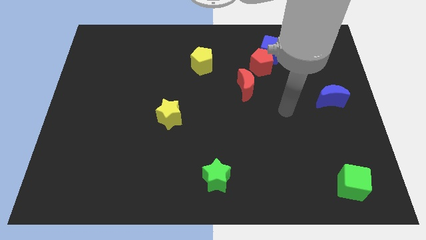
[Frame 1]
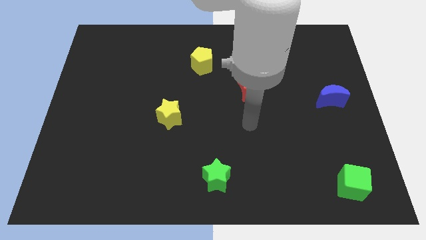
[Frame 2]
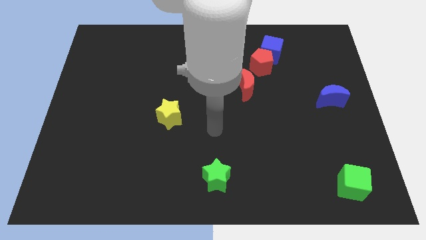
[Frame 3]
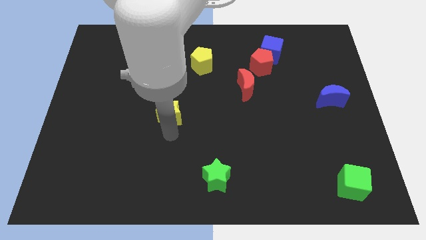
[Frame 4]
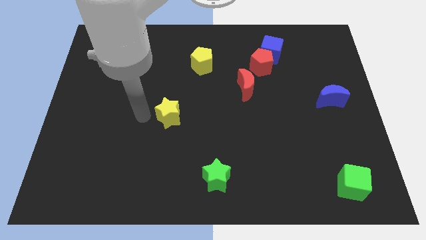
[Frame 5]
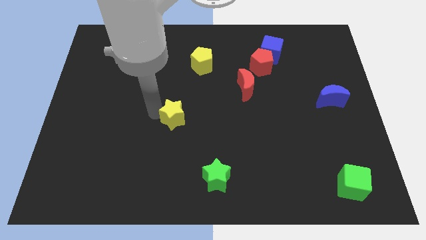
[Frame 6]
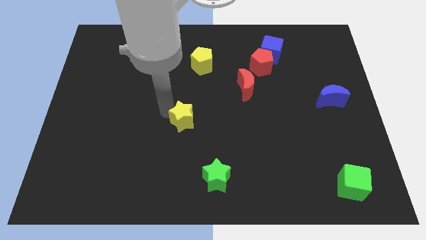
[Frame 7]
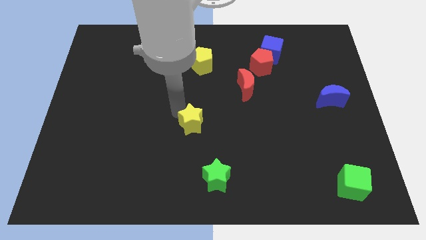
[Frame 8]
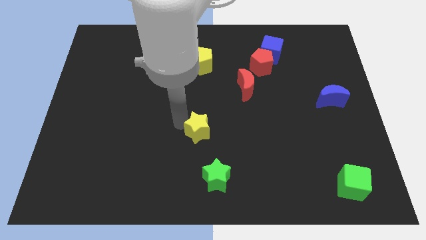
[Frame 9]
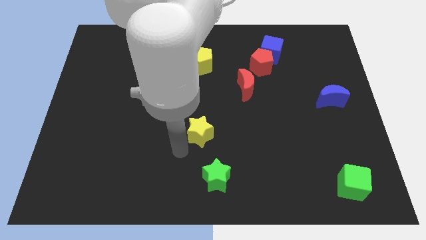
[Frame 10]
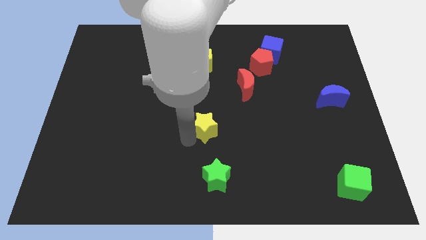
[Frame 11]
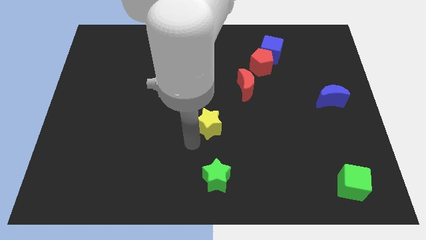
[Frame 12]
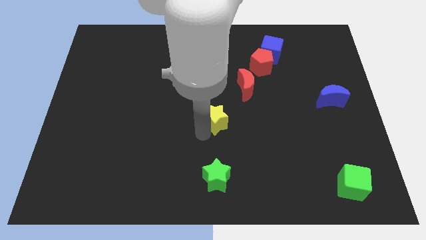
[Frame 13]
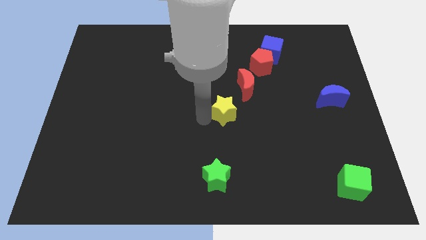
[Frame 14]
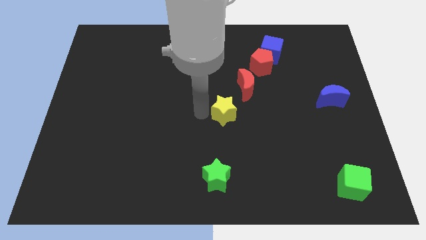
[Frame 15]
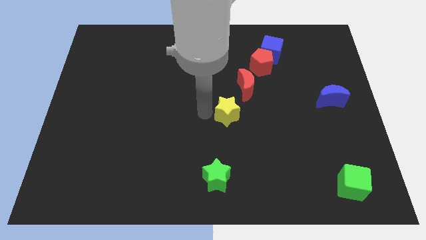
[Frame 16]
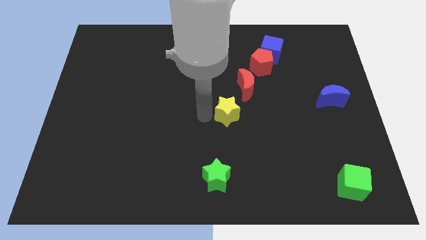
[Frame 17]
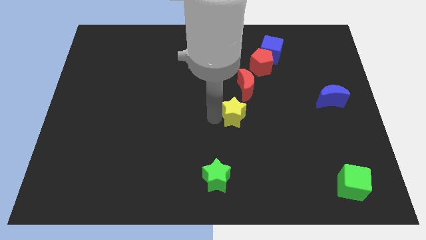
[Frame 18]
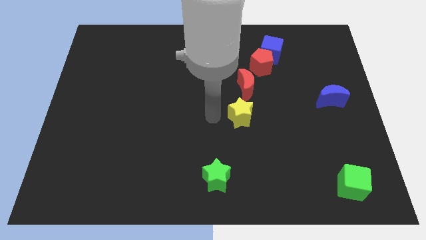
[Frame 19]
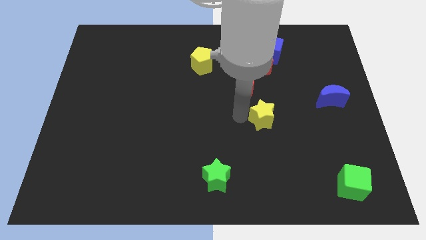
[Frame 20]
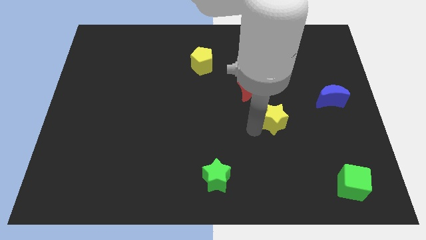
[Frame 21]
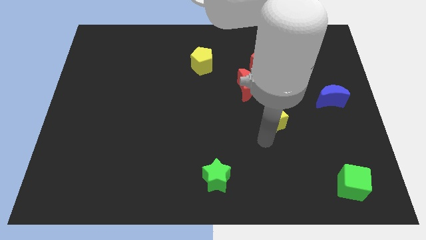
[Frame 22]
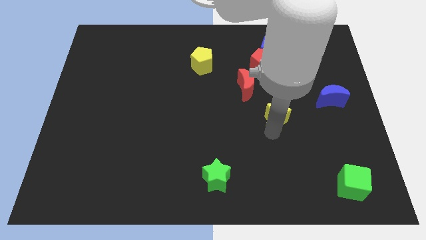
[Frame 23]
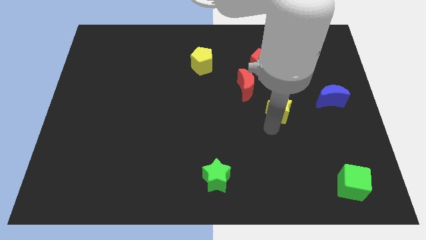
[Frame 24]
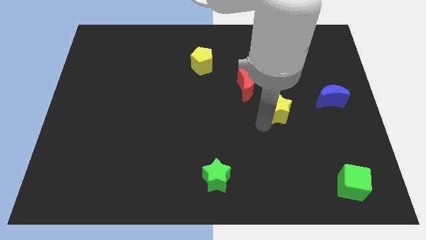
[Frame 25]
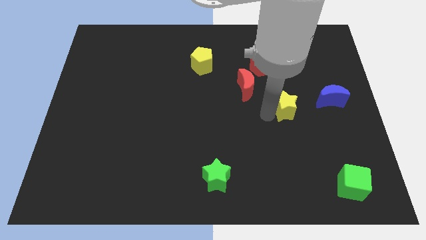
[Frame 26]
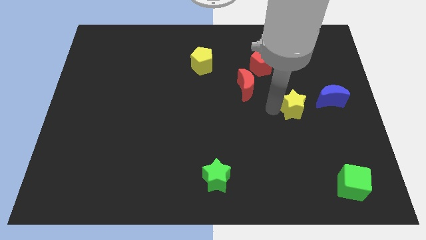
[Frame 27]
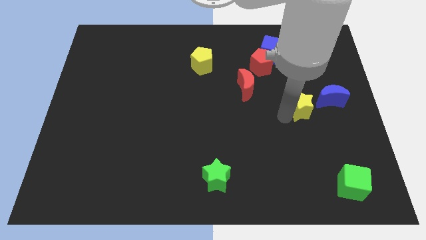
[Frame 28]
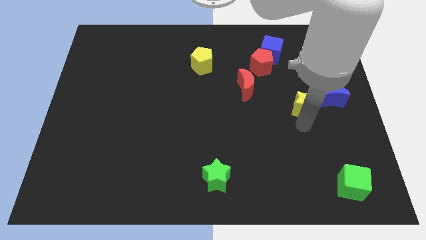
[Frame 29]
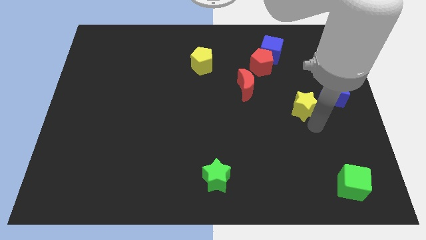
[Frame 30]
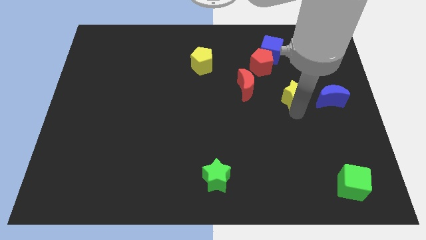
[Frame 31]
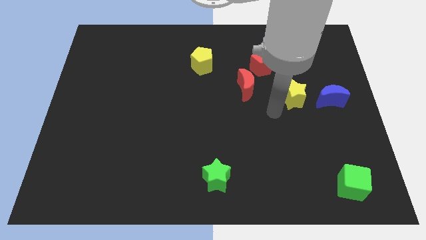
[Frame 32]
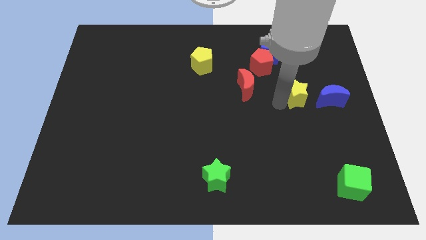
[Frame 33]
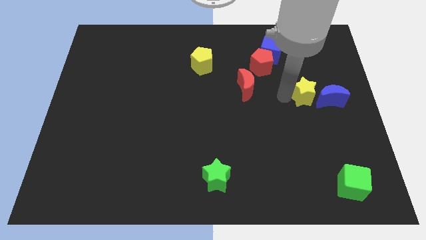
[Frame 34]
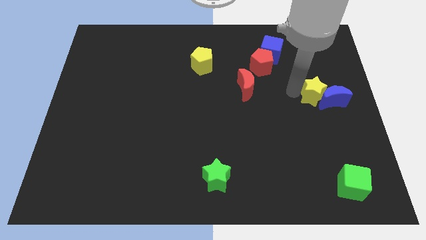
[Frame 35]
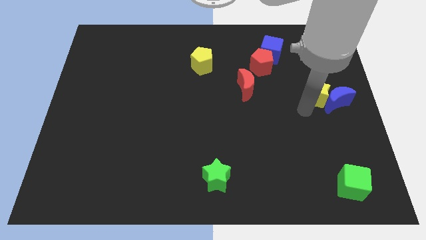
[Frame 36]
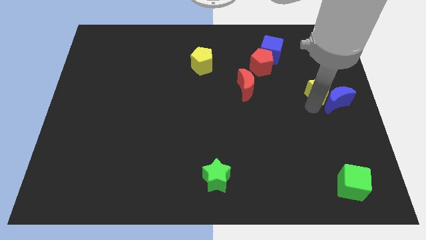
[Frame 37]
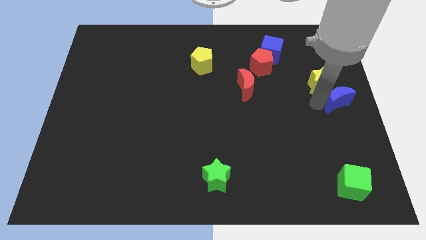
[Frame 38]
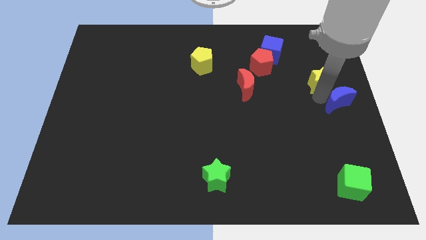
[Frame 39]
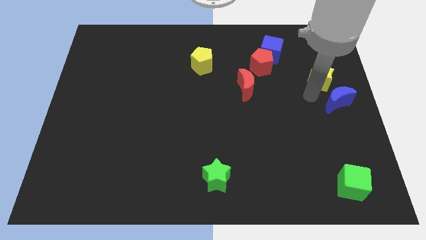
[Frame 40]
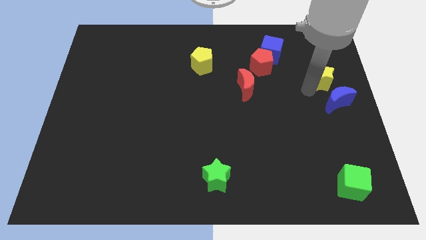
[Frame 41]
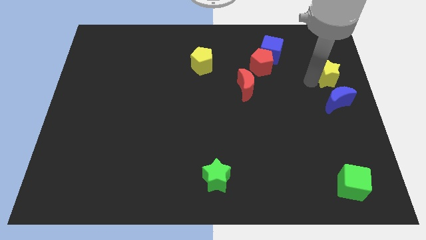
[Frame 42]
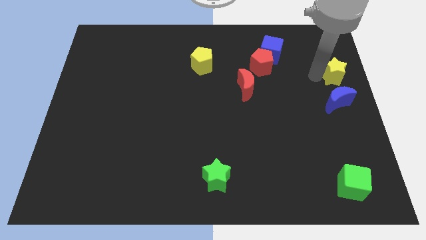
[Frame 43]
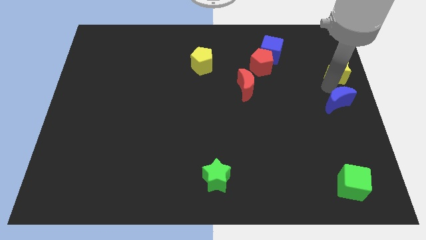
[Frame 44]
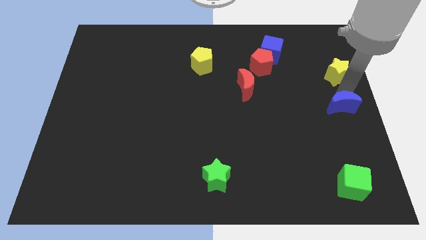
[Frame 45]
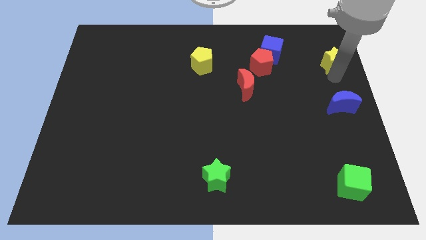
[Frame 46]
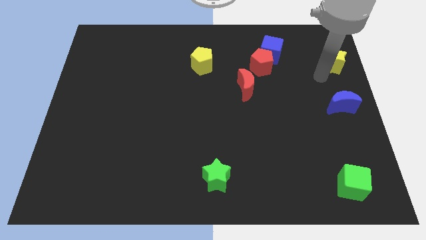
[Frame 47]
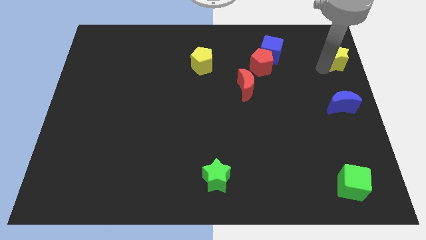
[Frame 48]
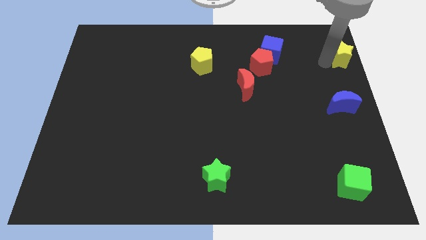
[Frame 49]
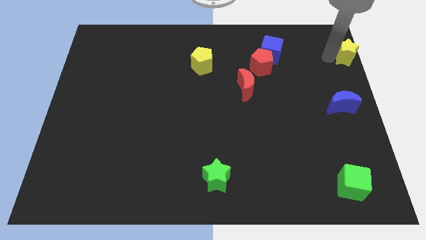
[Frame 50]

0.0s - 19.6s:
slide the yellow star to the top right corner

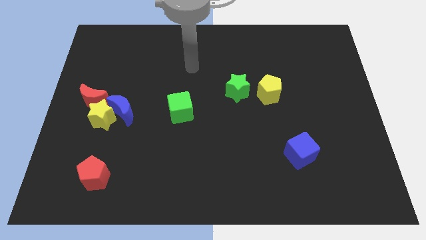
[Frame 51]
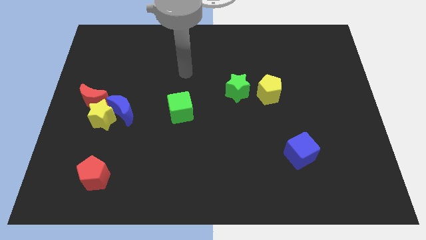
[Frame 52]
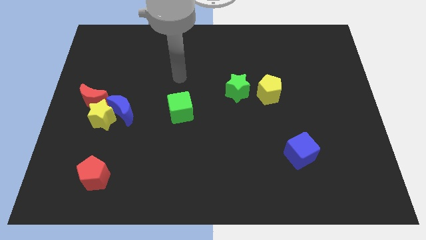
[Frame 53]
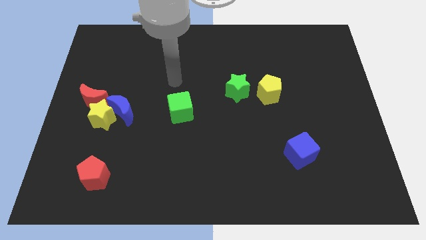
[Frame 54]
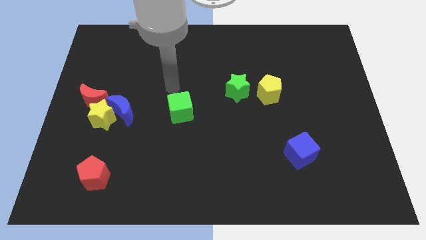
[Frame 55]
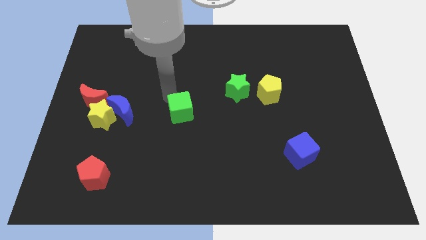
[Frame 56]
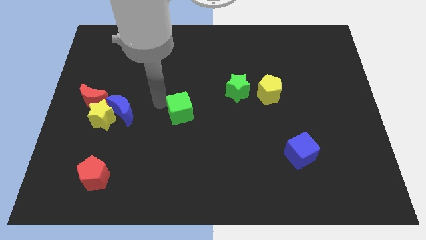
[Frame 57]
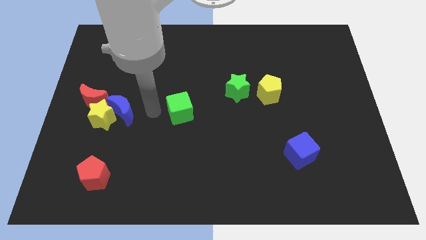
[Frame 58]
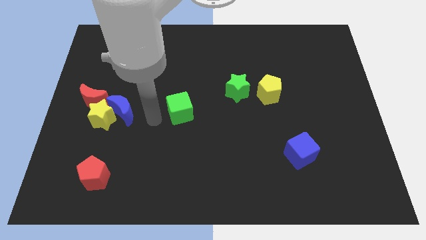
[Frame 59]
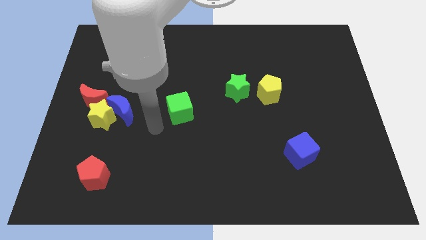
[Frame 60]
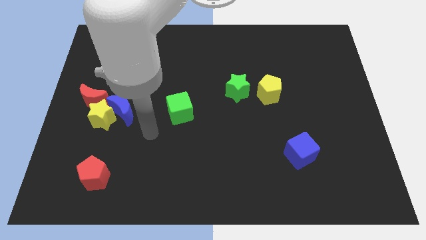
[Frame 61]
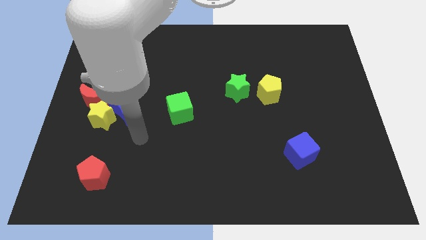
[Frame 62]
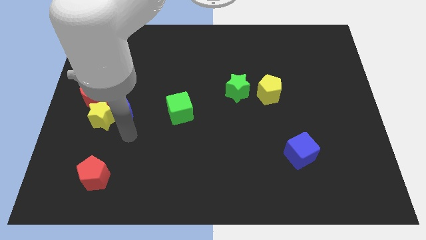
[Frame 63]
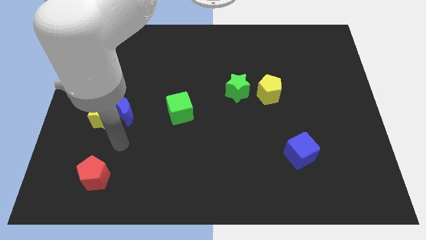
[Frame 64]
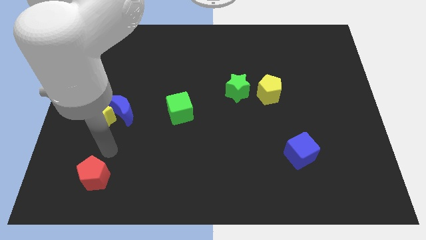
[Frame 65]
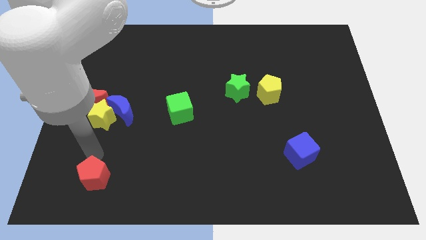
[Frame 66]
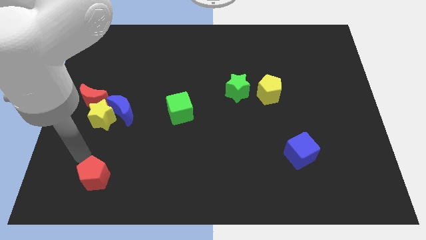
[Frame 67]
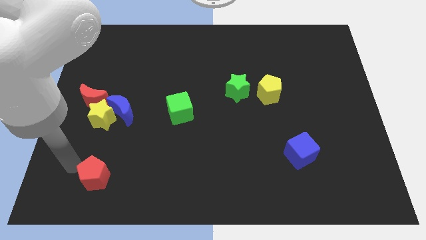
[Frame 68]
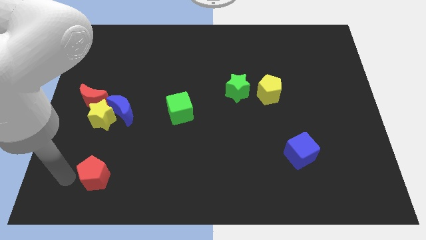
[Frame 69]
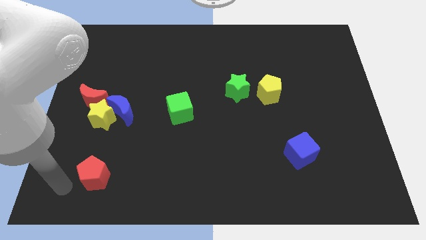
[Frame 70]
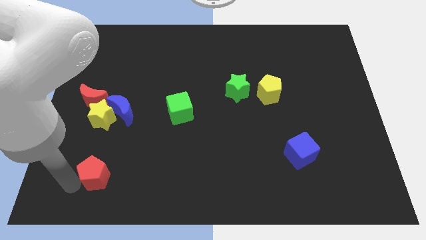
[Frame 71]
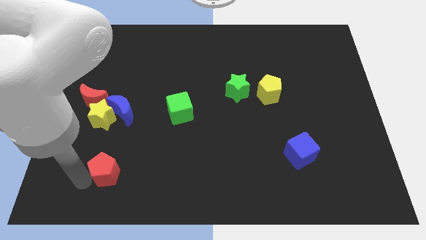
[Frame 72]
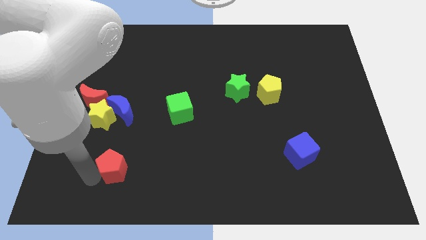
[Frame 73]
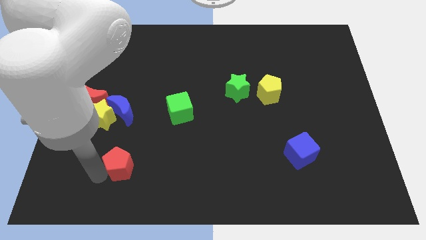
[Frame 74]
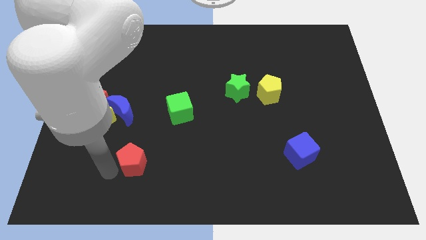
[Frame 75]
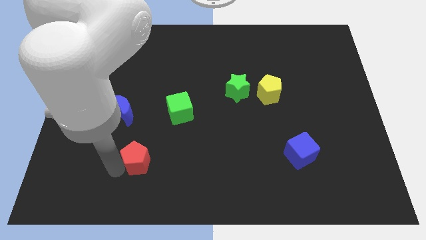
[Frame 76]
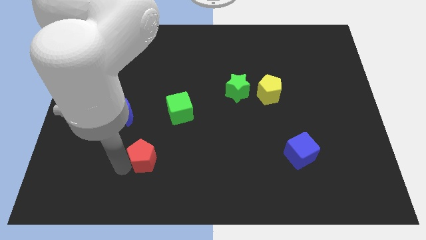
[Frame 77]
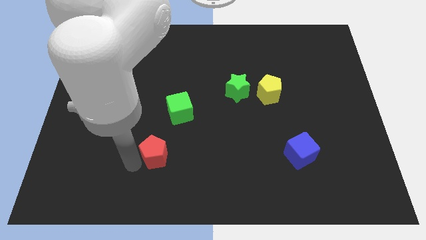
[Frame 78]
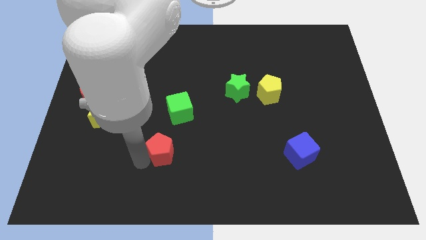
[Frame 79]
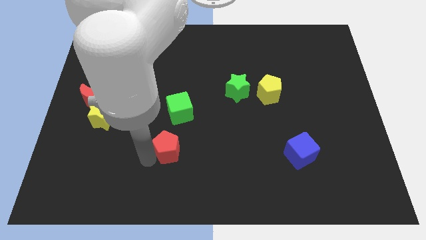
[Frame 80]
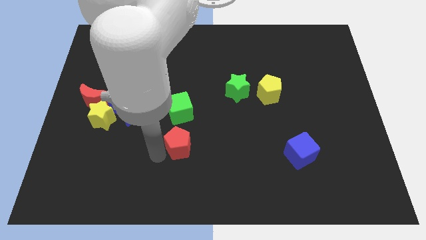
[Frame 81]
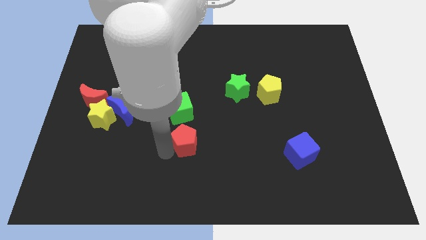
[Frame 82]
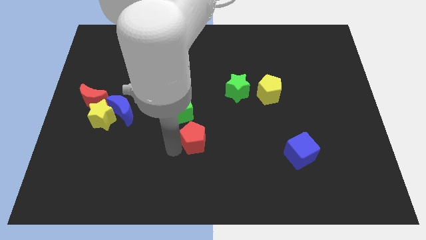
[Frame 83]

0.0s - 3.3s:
push the red pentagon to the middle of the board
